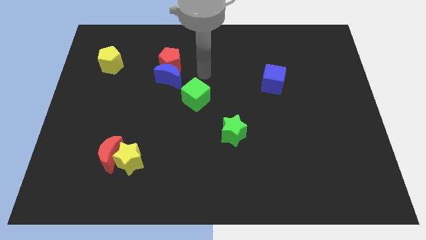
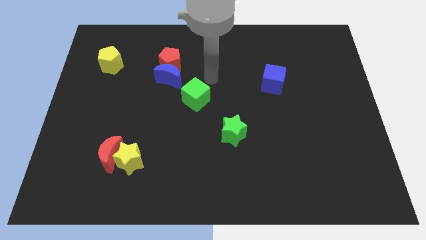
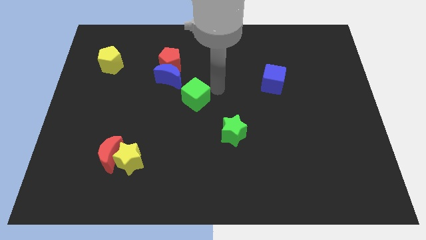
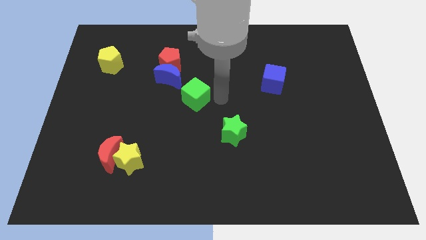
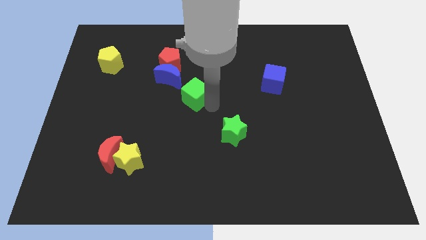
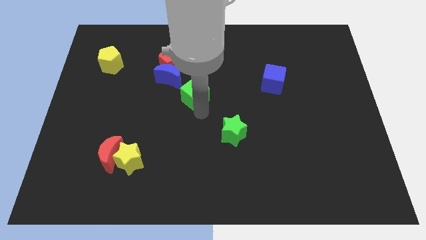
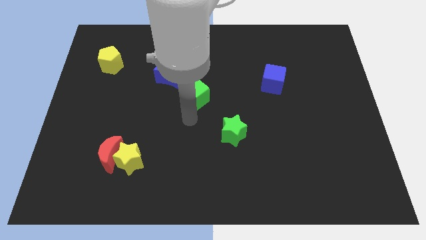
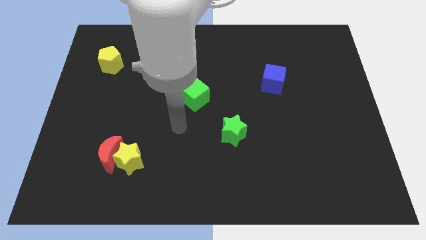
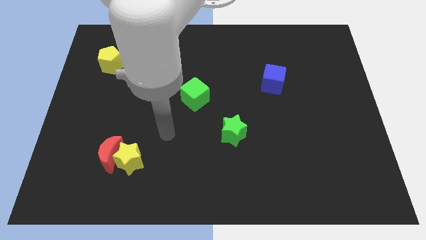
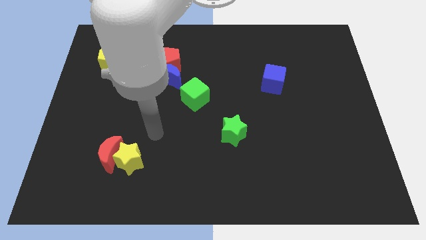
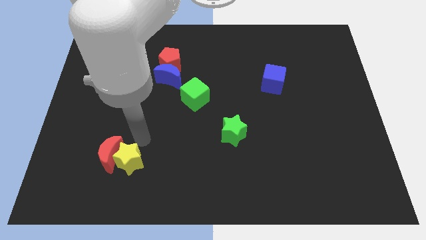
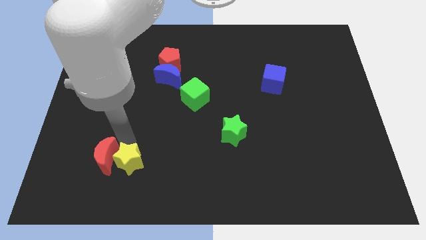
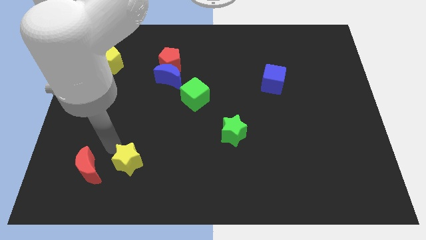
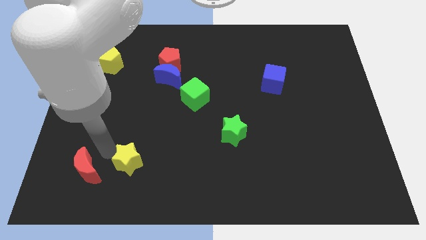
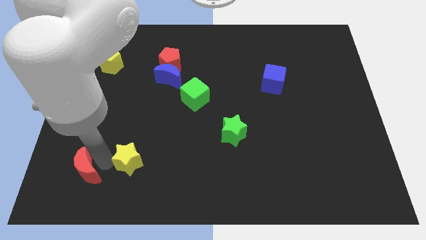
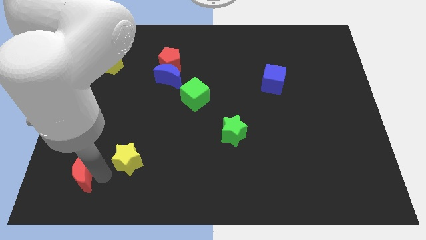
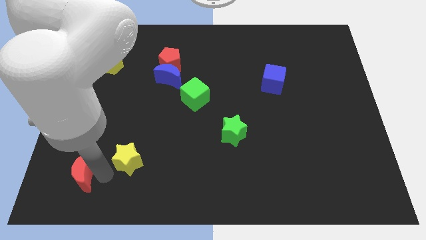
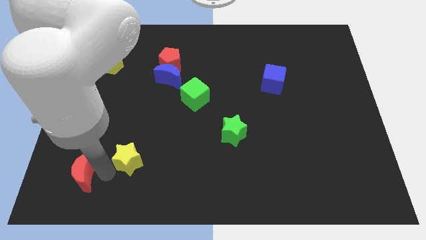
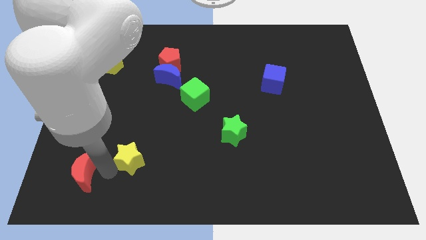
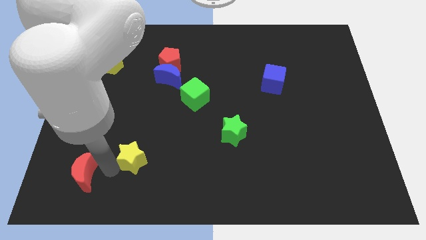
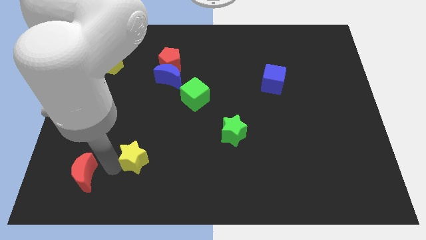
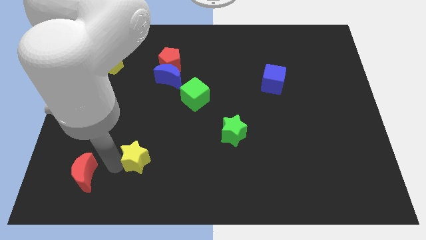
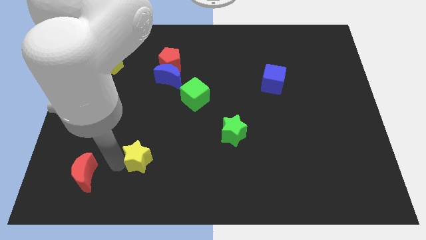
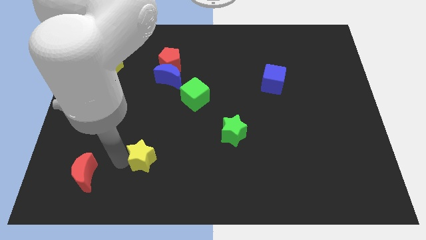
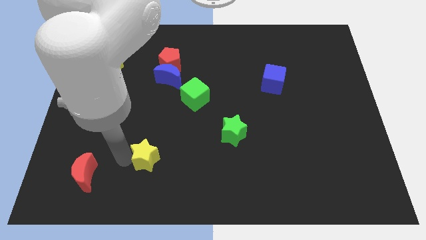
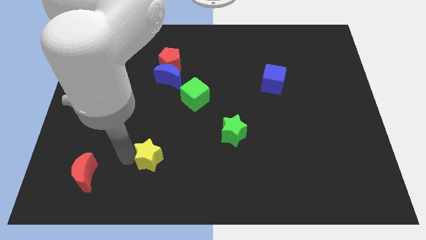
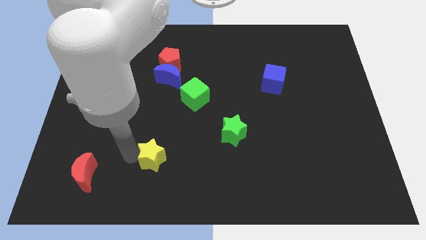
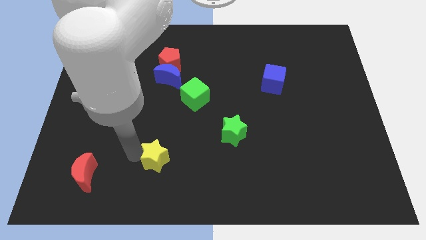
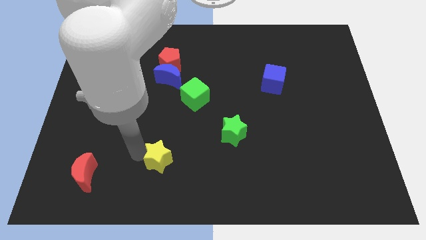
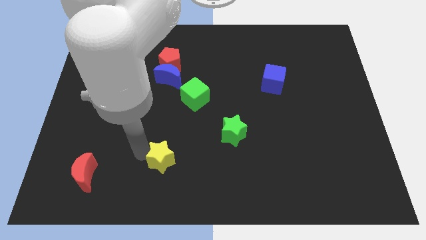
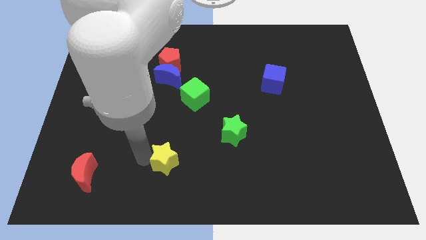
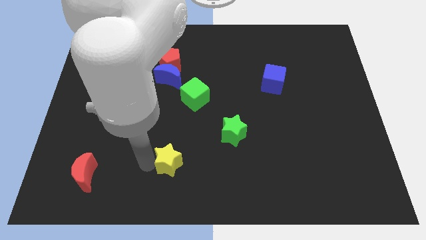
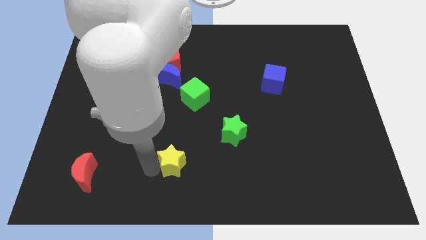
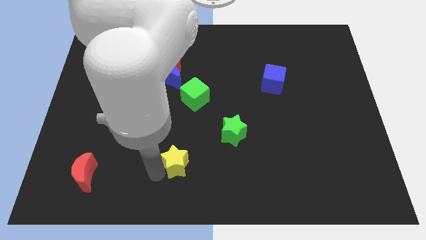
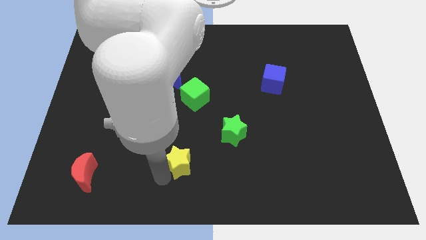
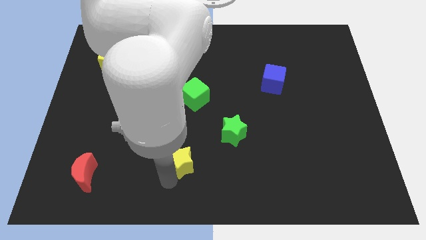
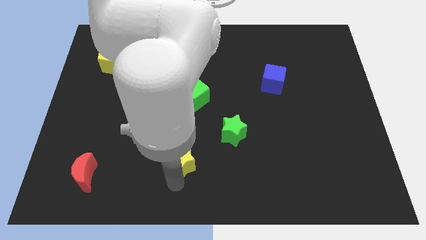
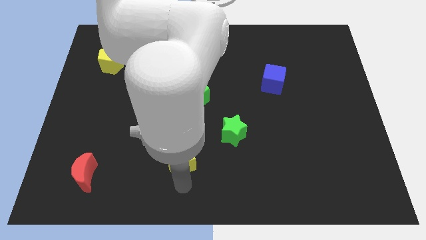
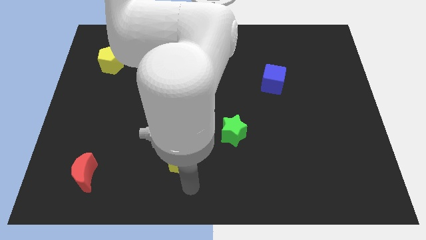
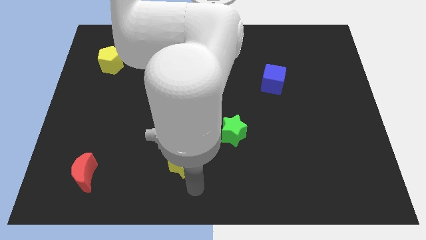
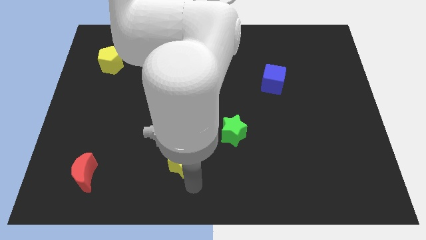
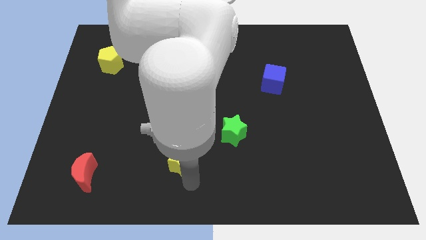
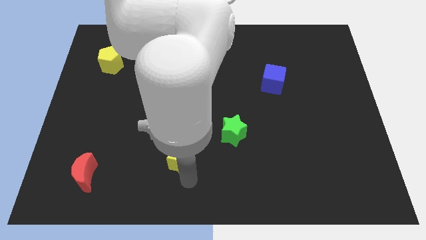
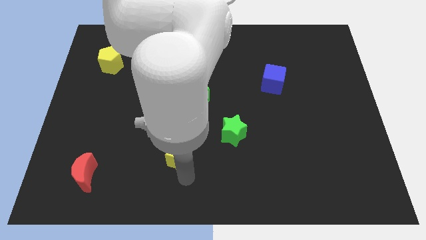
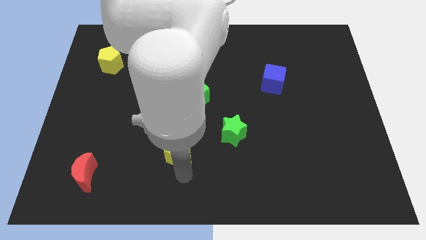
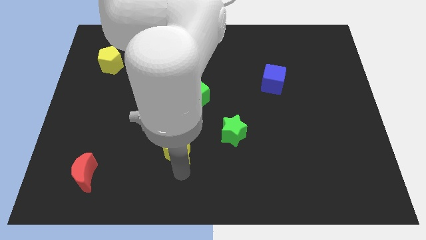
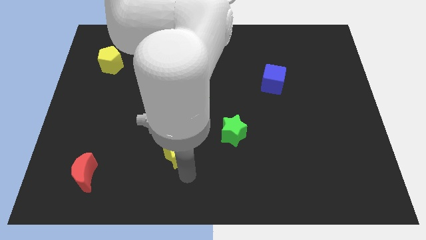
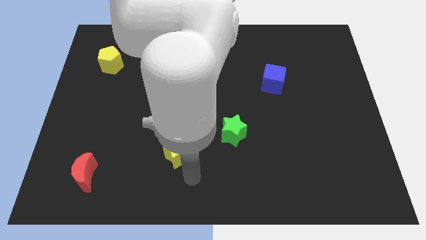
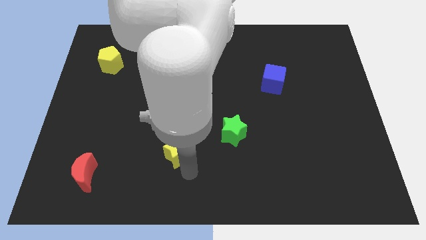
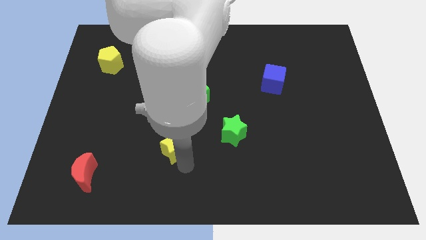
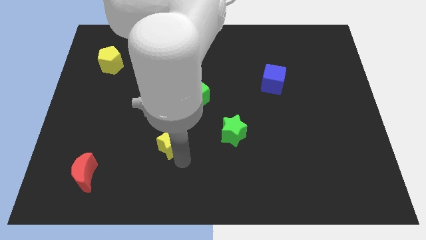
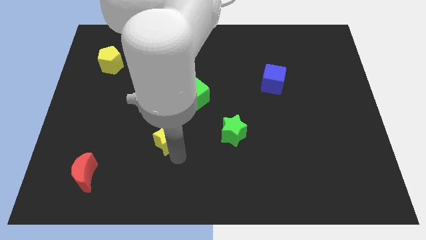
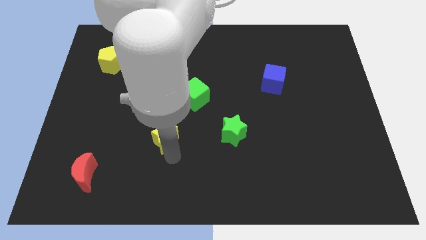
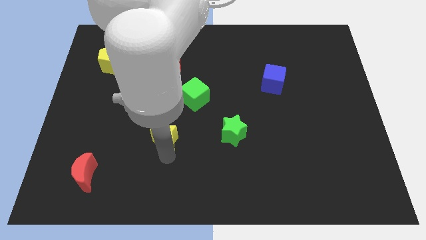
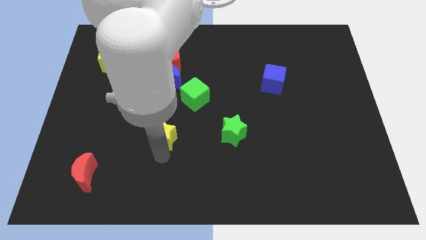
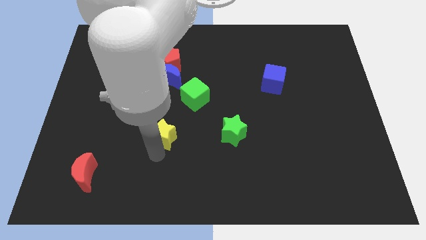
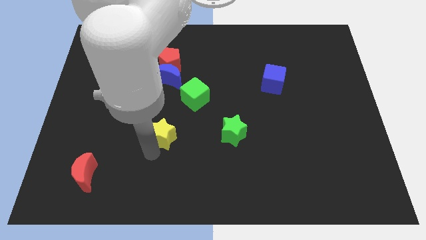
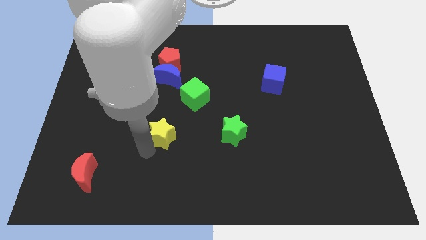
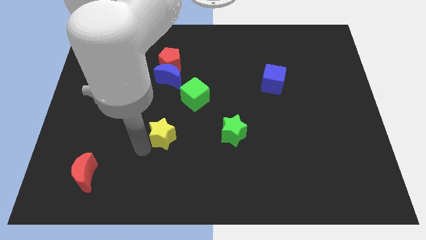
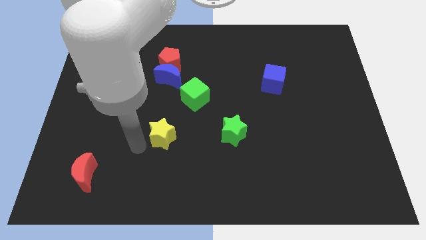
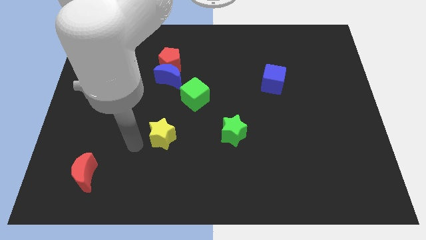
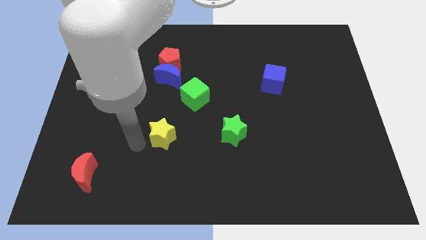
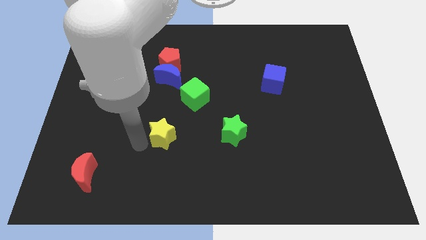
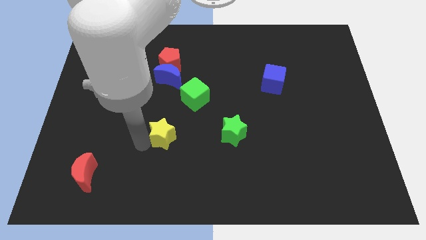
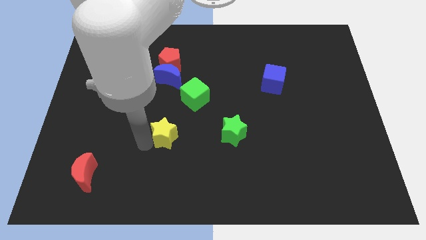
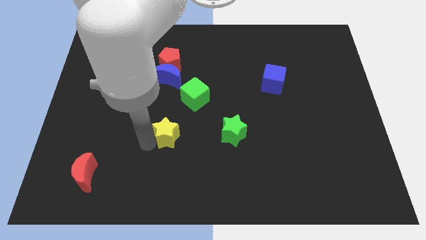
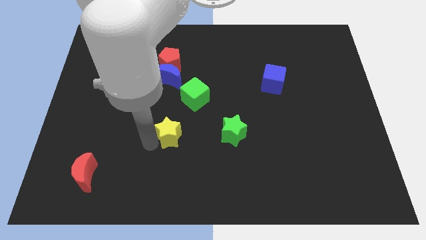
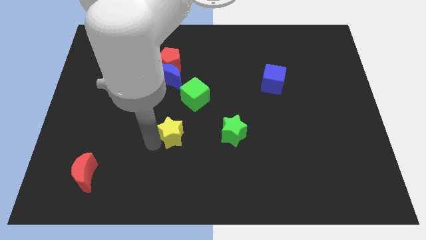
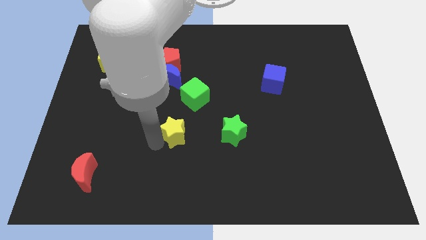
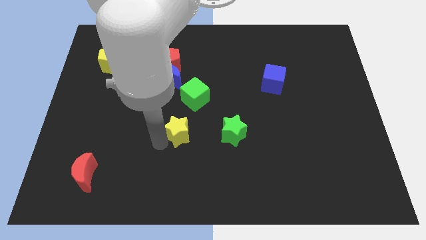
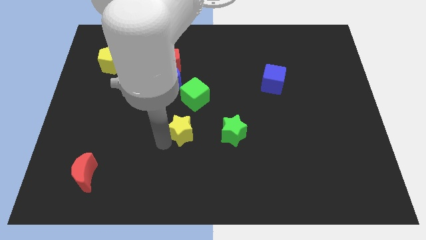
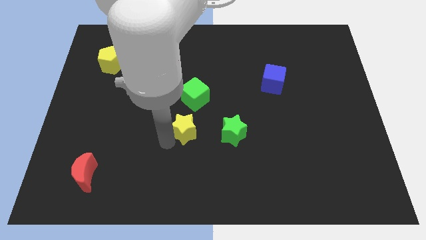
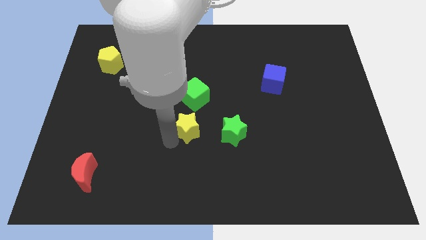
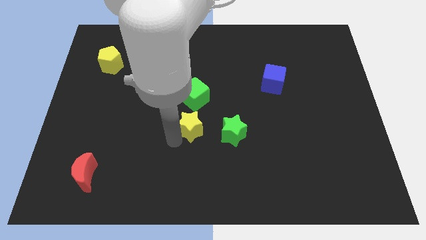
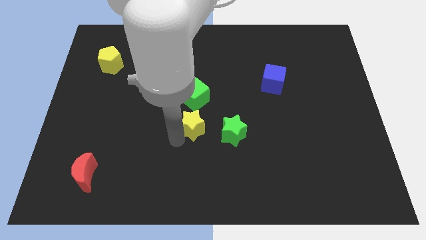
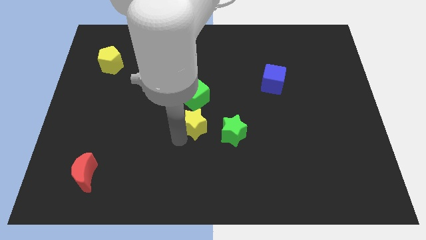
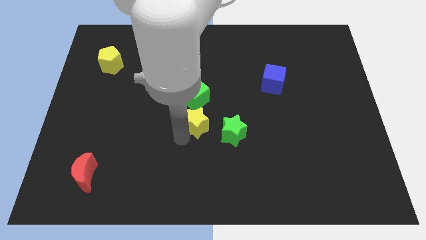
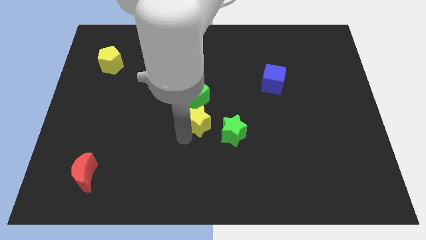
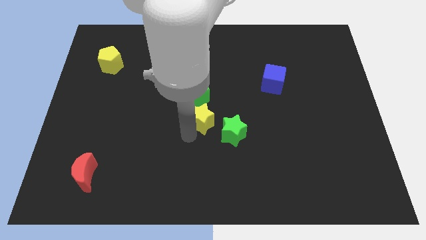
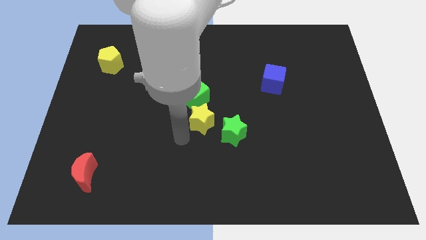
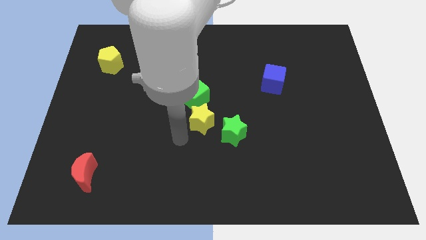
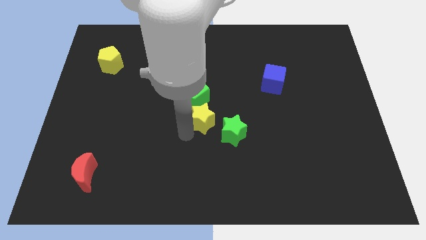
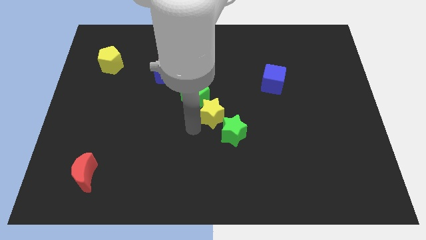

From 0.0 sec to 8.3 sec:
move the yellow star above the green star
